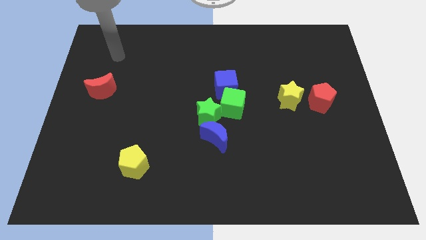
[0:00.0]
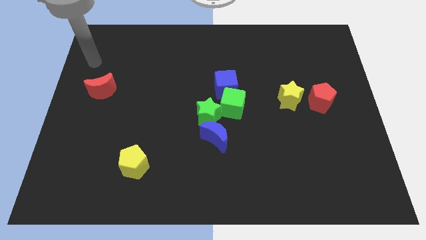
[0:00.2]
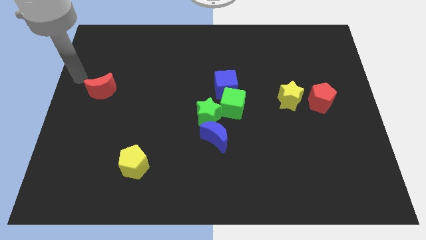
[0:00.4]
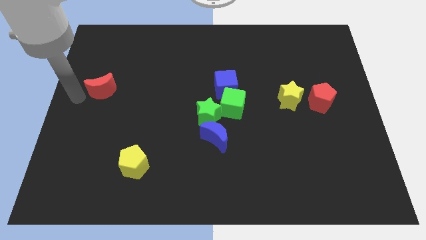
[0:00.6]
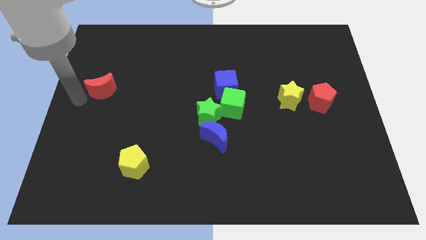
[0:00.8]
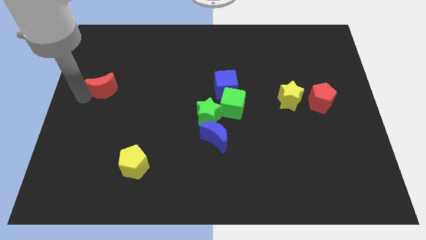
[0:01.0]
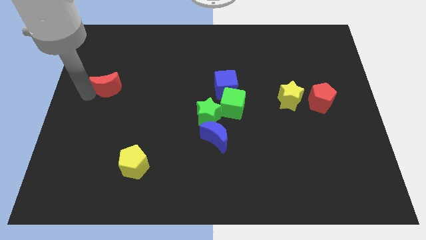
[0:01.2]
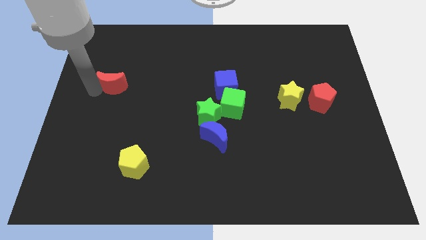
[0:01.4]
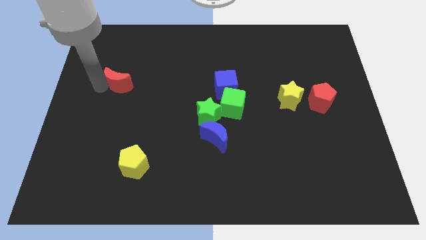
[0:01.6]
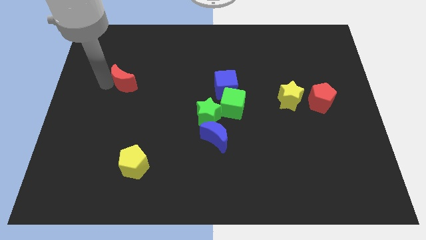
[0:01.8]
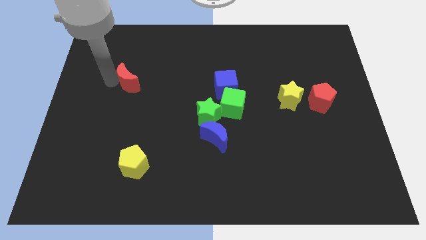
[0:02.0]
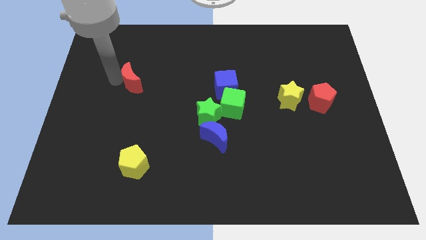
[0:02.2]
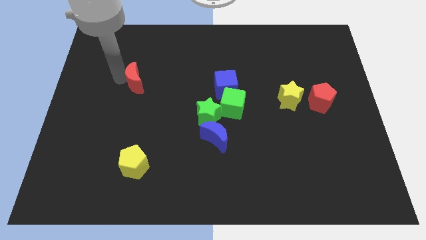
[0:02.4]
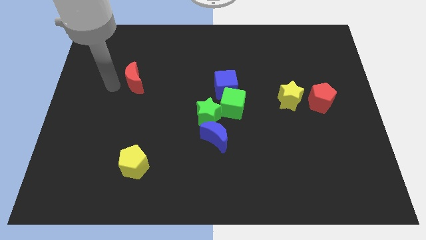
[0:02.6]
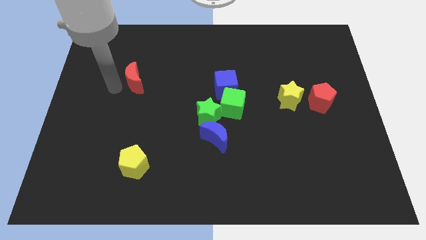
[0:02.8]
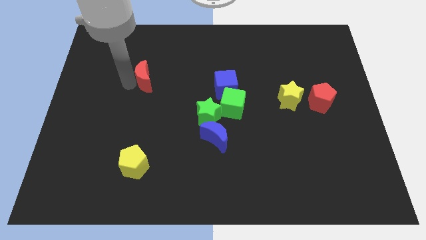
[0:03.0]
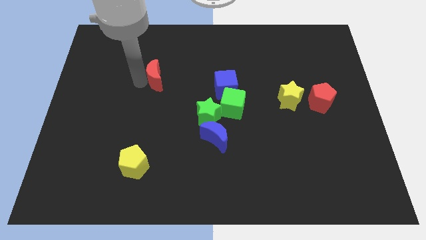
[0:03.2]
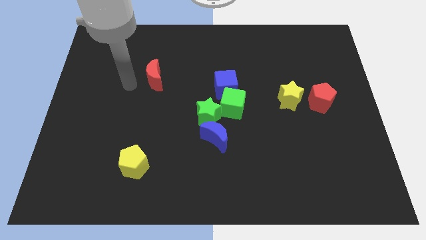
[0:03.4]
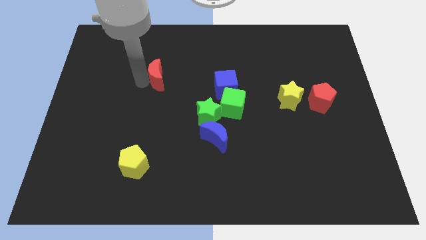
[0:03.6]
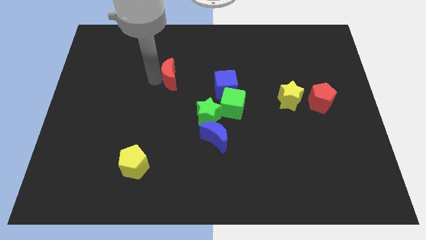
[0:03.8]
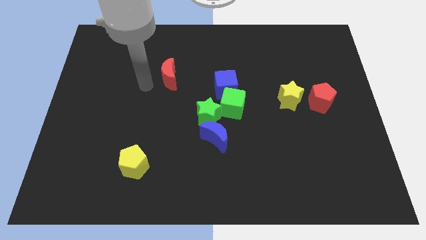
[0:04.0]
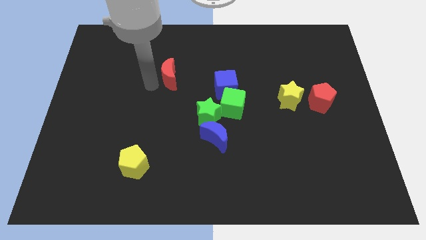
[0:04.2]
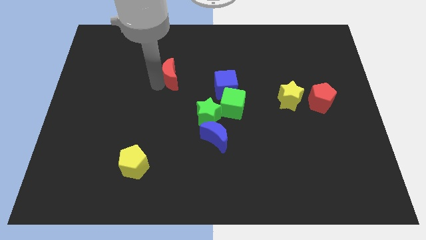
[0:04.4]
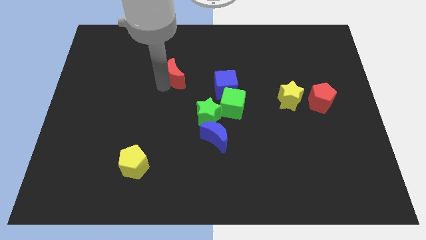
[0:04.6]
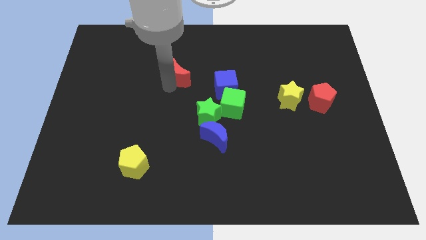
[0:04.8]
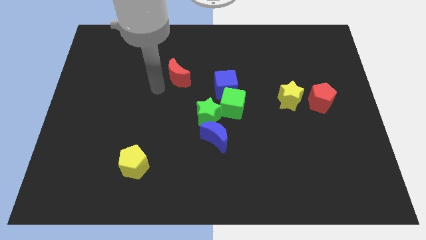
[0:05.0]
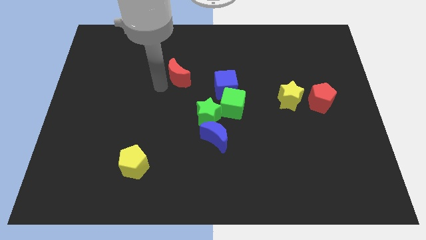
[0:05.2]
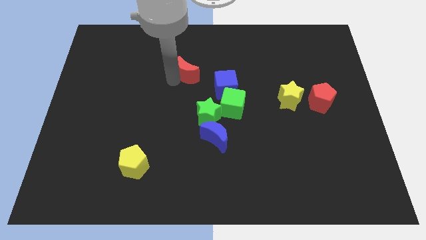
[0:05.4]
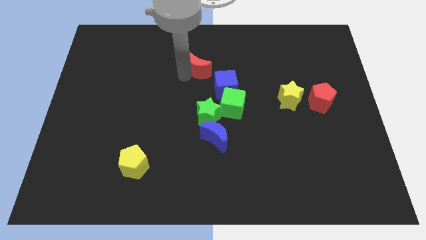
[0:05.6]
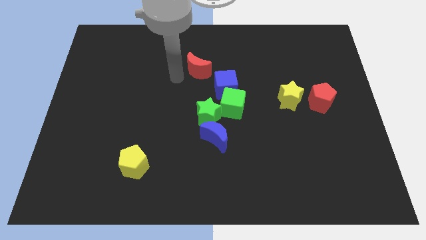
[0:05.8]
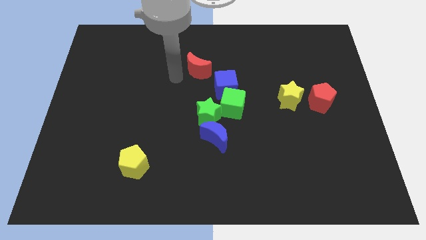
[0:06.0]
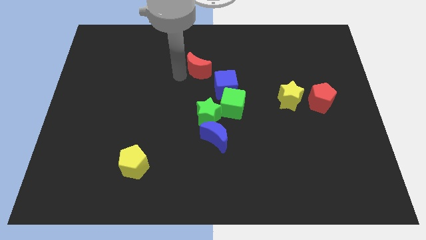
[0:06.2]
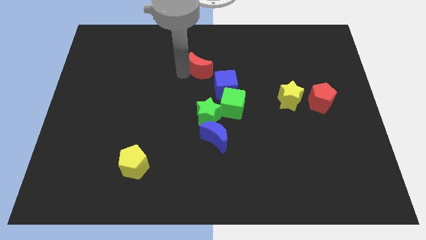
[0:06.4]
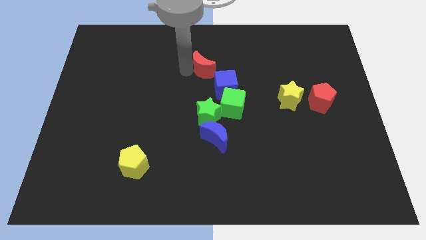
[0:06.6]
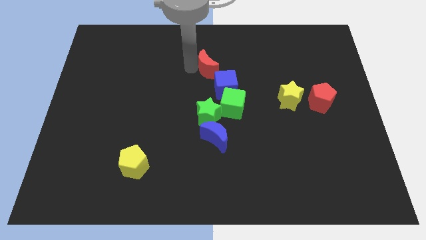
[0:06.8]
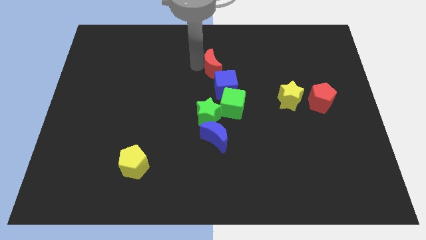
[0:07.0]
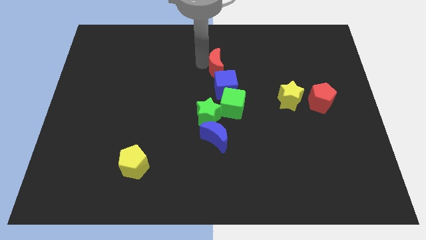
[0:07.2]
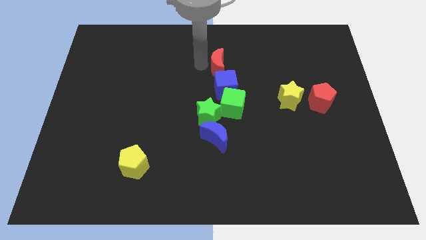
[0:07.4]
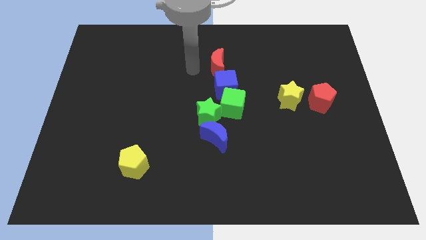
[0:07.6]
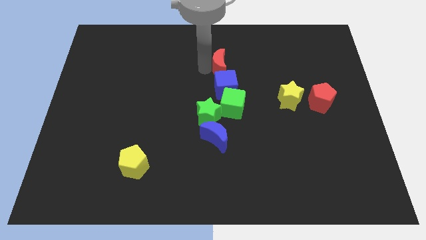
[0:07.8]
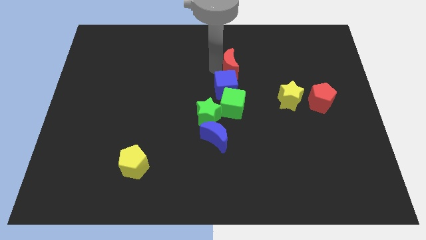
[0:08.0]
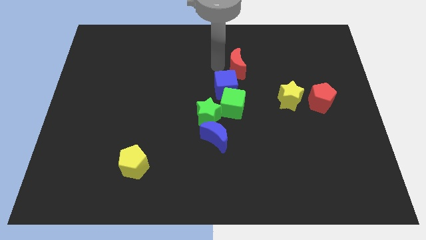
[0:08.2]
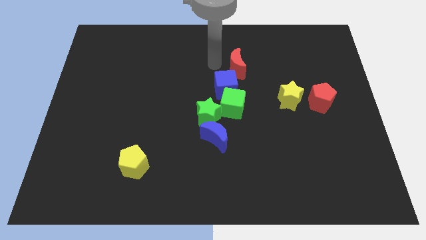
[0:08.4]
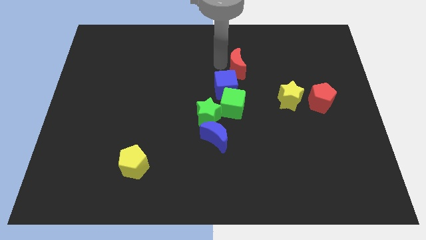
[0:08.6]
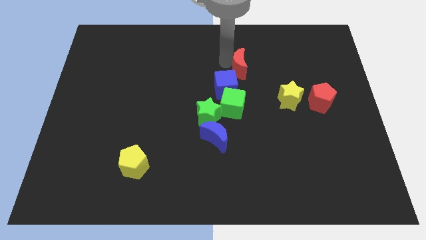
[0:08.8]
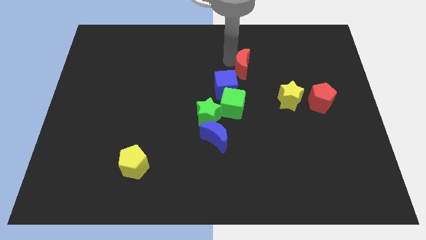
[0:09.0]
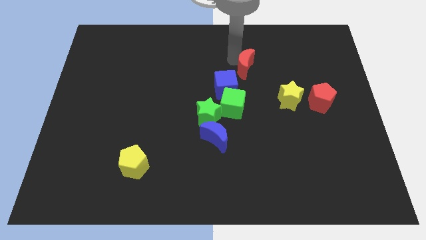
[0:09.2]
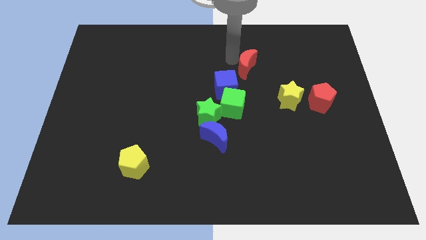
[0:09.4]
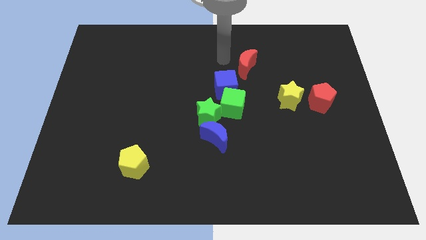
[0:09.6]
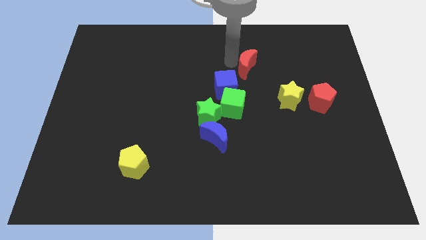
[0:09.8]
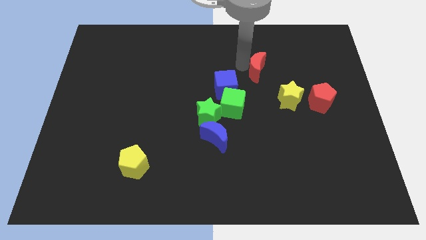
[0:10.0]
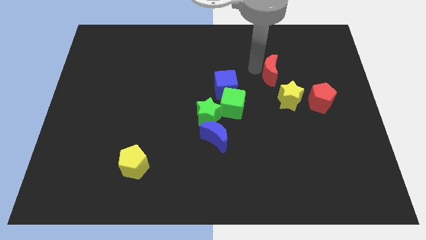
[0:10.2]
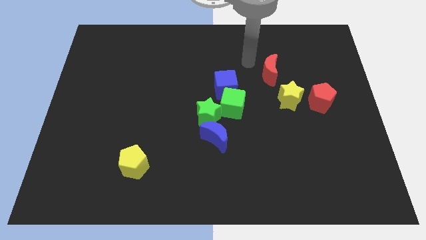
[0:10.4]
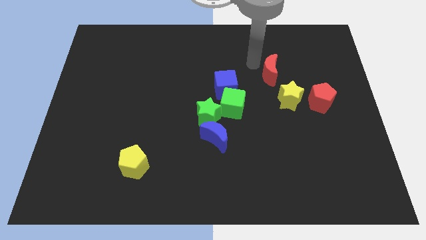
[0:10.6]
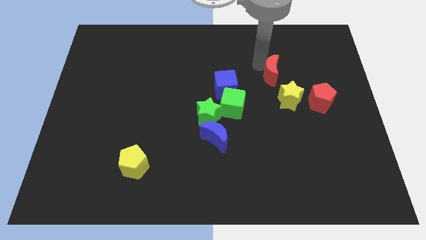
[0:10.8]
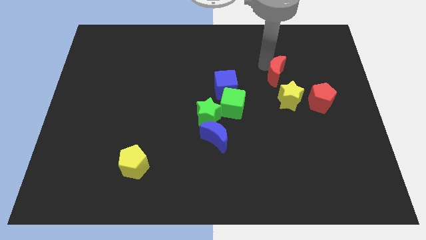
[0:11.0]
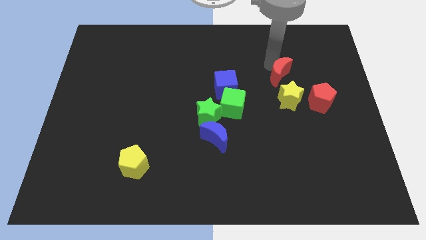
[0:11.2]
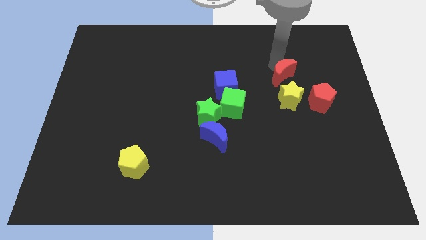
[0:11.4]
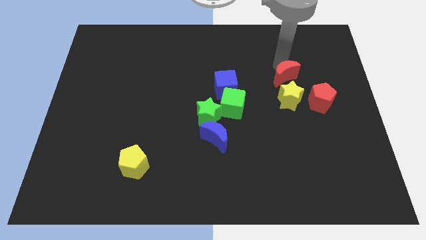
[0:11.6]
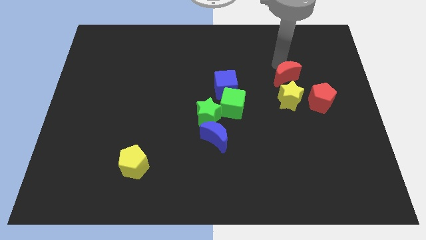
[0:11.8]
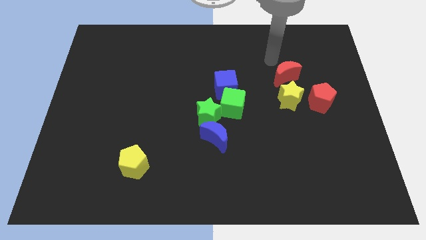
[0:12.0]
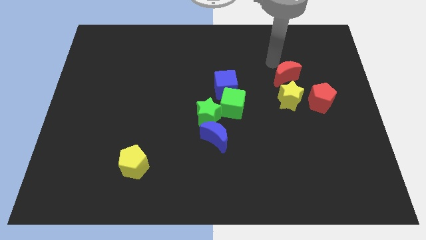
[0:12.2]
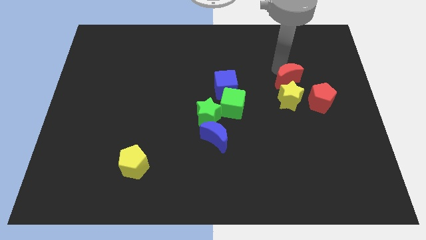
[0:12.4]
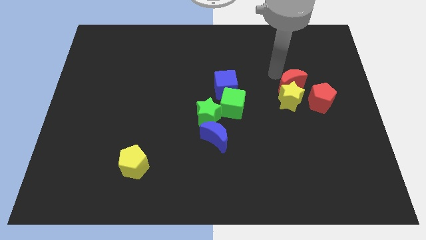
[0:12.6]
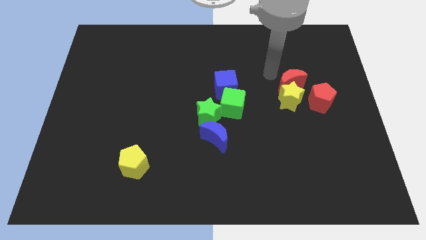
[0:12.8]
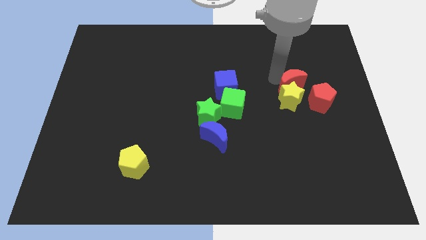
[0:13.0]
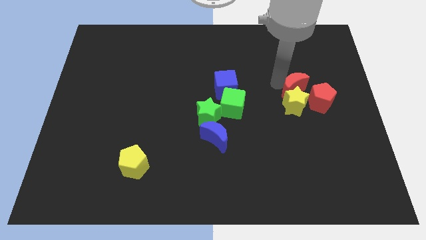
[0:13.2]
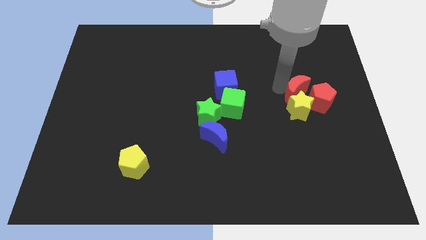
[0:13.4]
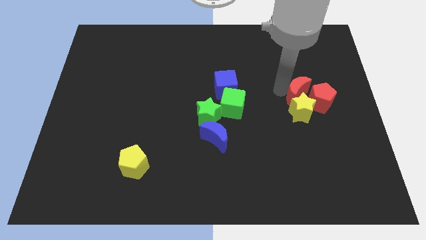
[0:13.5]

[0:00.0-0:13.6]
slide the red moon to the red pentagon

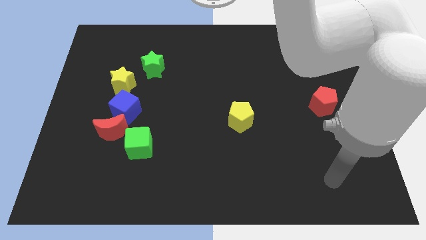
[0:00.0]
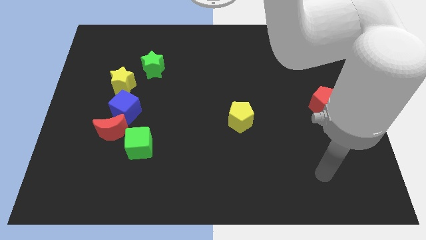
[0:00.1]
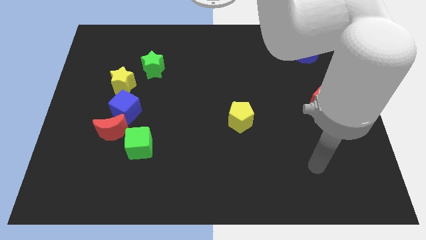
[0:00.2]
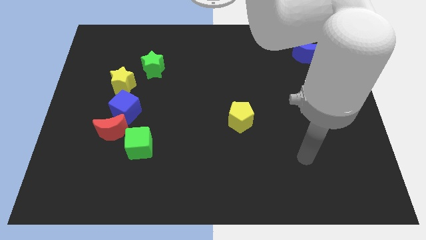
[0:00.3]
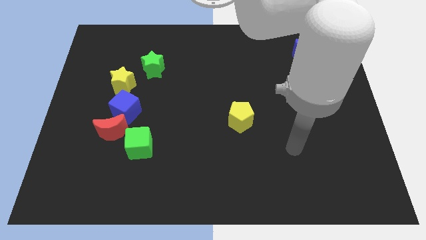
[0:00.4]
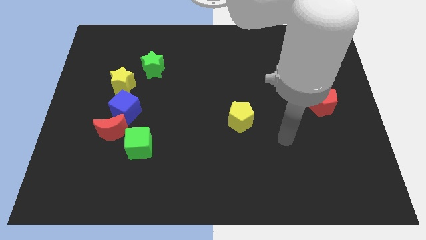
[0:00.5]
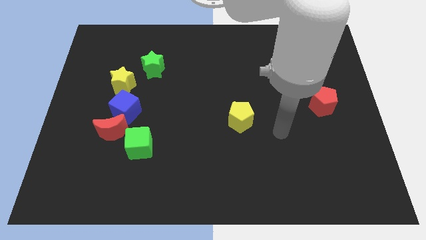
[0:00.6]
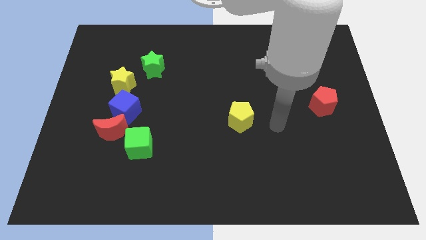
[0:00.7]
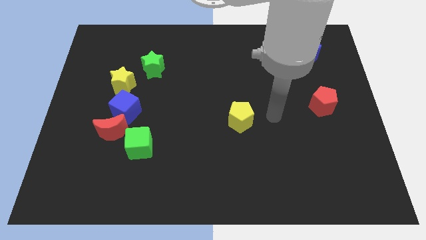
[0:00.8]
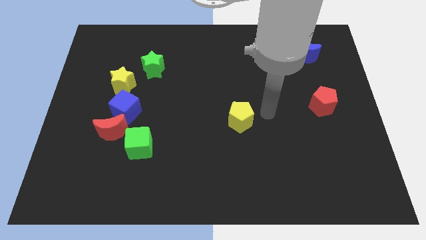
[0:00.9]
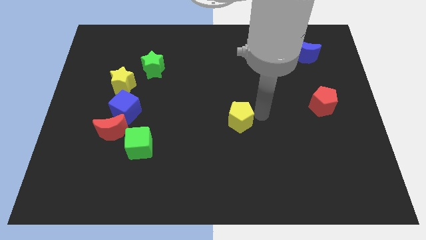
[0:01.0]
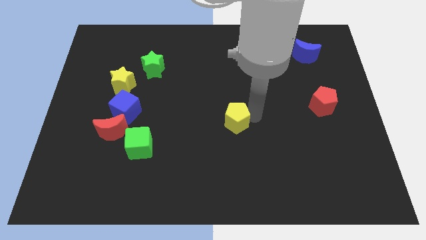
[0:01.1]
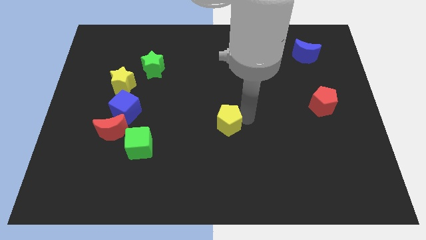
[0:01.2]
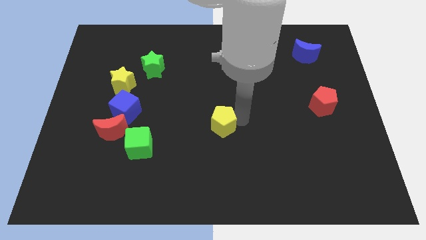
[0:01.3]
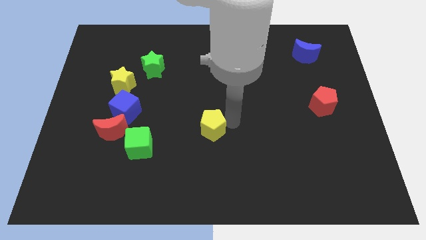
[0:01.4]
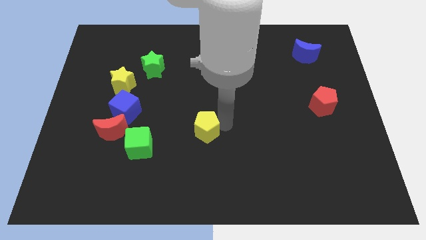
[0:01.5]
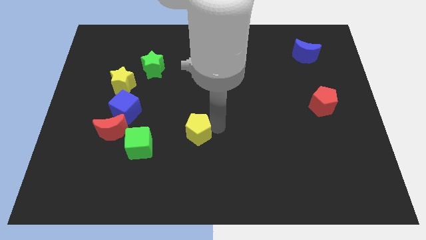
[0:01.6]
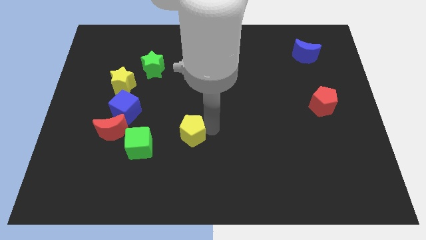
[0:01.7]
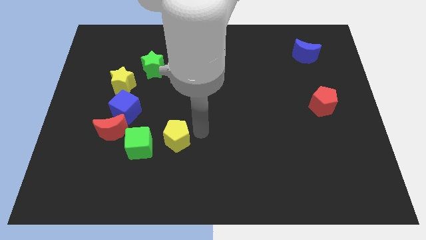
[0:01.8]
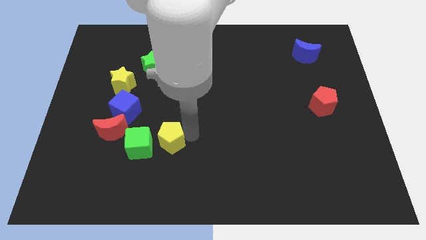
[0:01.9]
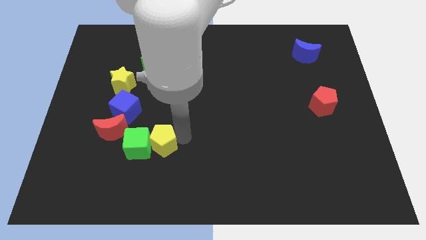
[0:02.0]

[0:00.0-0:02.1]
put the yellow pentagon to the green cube
